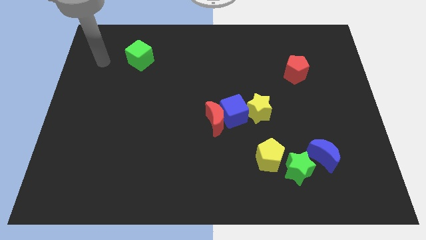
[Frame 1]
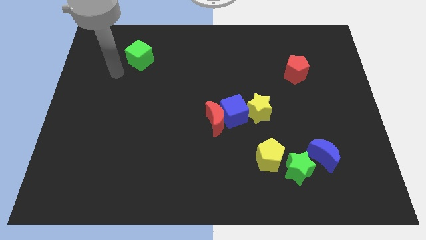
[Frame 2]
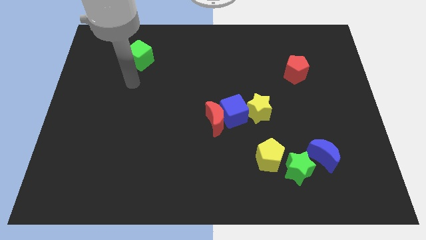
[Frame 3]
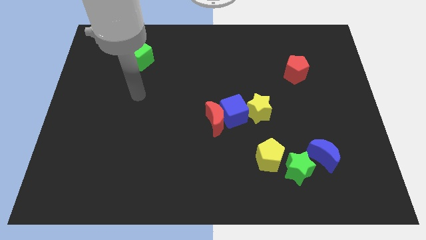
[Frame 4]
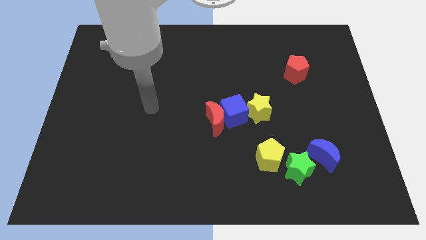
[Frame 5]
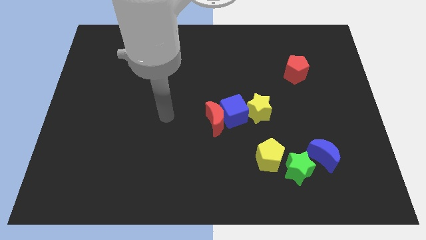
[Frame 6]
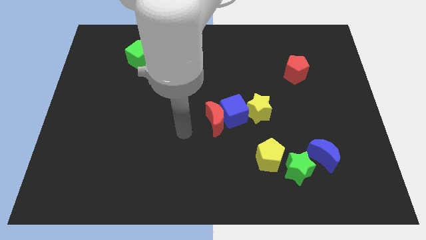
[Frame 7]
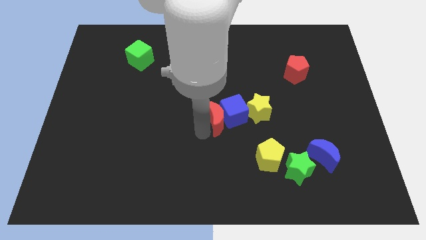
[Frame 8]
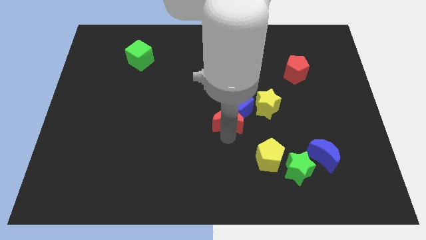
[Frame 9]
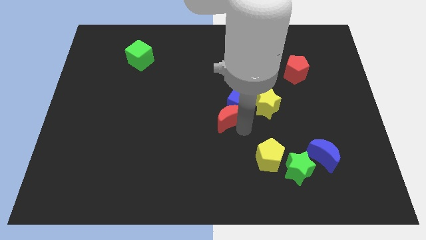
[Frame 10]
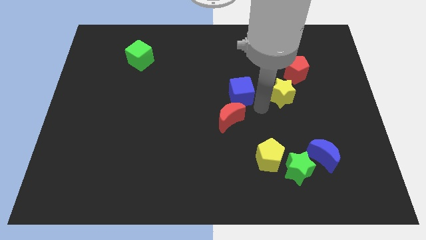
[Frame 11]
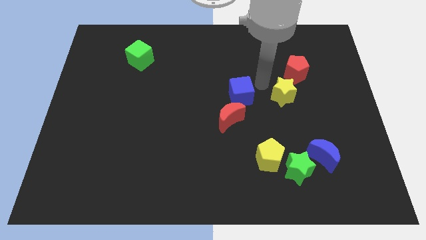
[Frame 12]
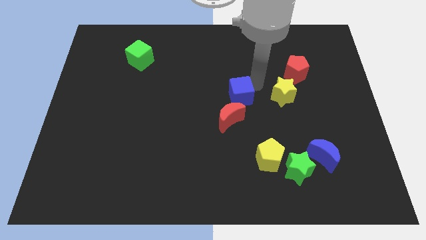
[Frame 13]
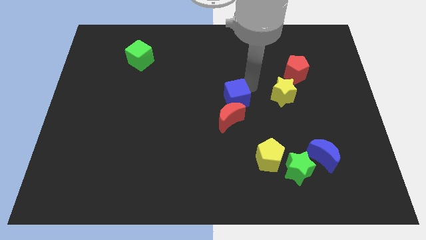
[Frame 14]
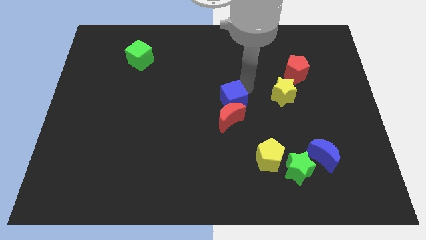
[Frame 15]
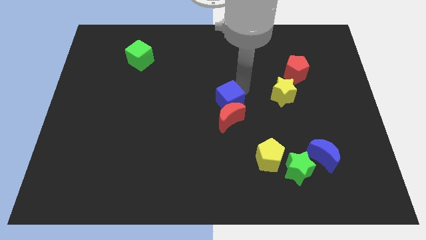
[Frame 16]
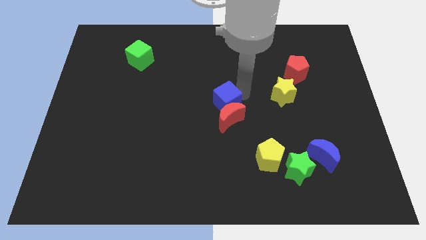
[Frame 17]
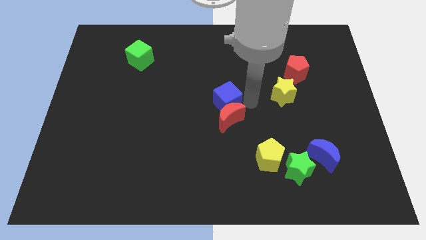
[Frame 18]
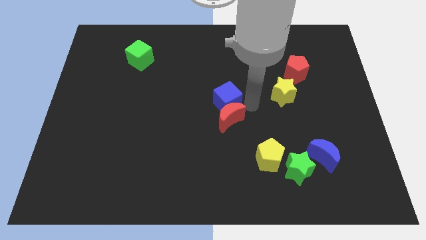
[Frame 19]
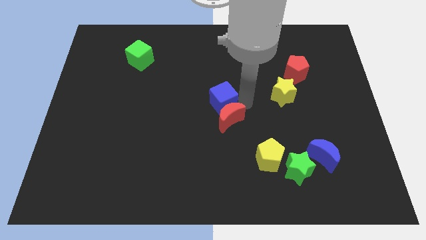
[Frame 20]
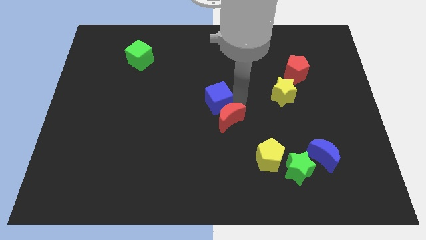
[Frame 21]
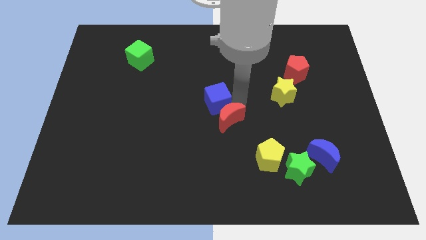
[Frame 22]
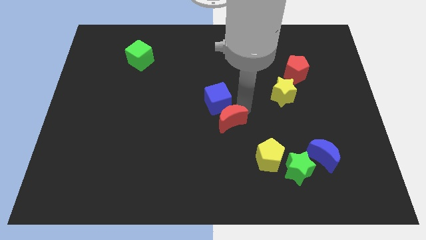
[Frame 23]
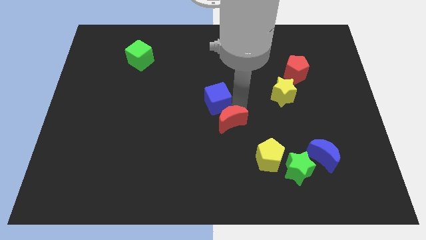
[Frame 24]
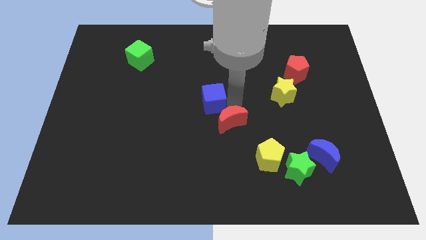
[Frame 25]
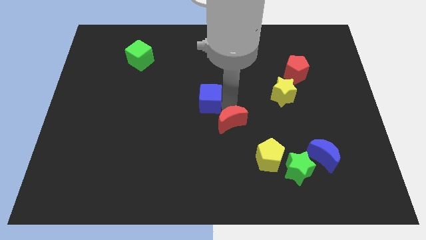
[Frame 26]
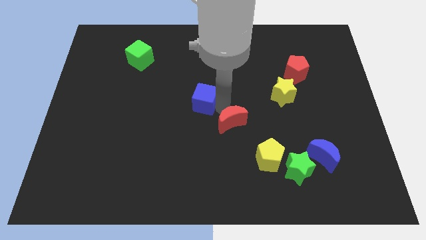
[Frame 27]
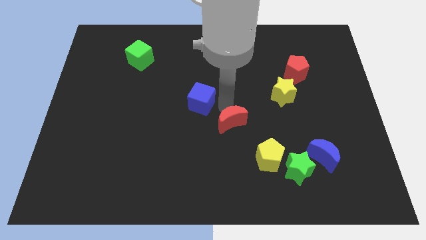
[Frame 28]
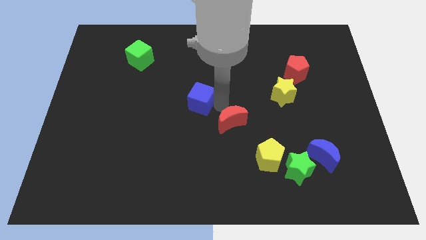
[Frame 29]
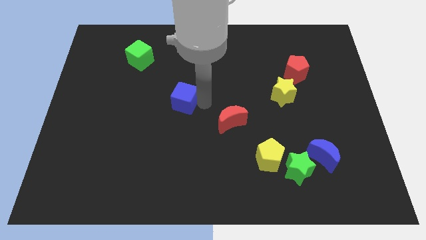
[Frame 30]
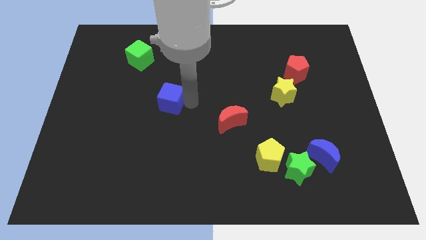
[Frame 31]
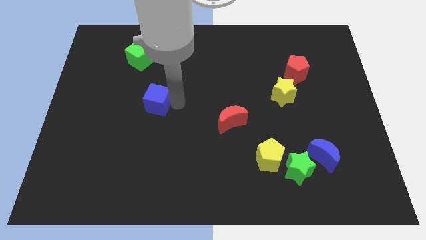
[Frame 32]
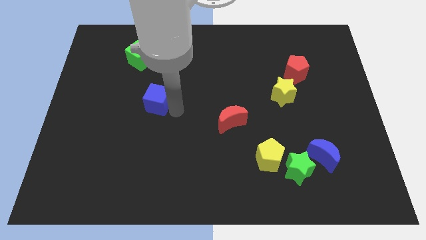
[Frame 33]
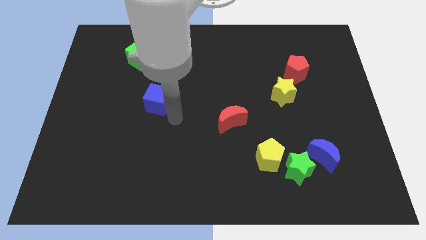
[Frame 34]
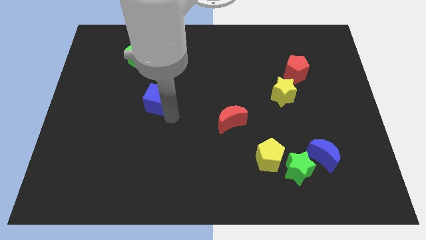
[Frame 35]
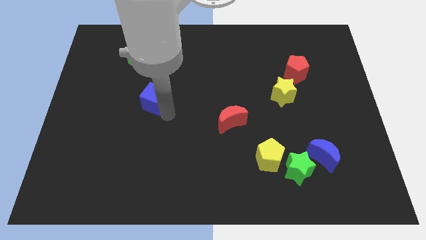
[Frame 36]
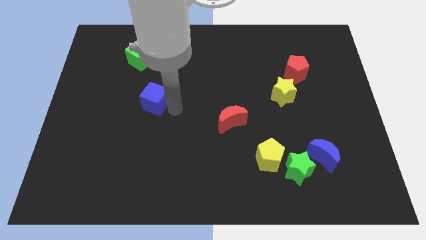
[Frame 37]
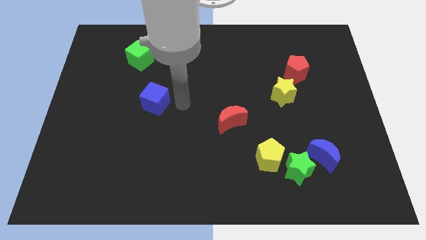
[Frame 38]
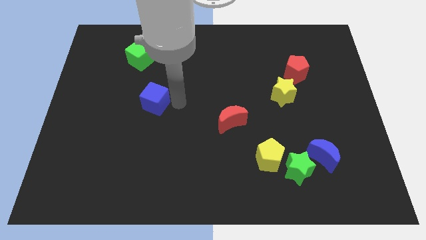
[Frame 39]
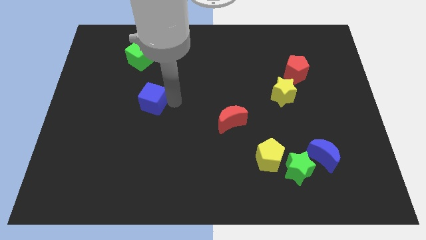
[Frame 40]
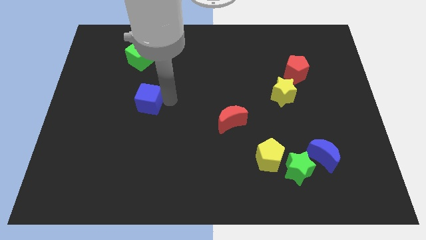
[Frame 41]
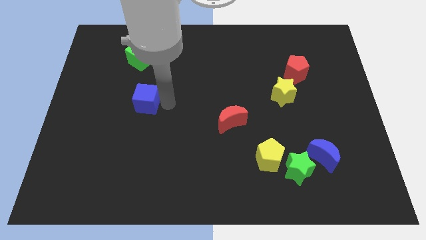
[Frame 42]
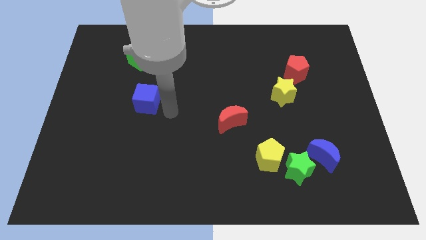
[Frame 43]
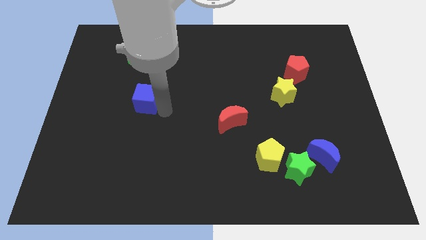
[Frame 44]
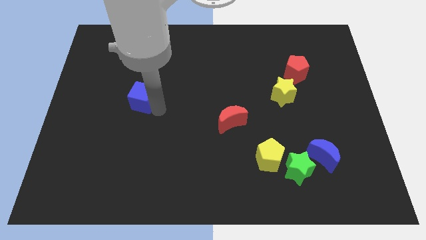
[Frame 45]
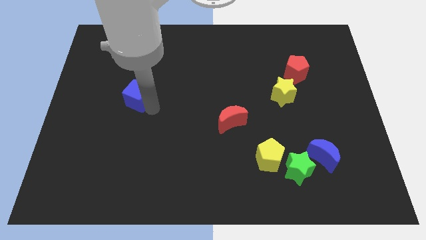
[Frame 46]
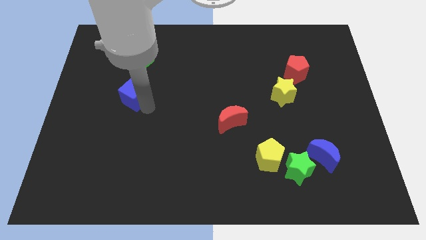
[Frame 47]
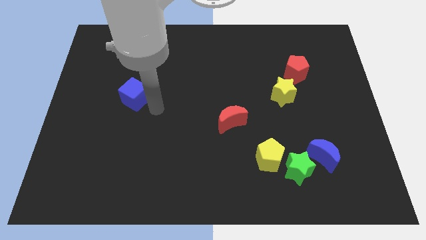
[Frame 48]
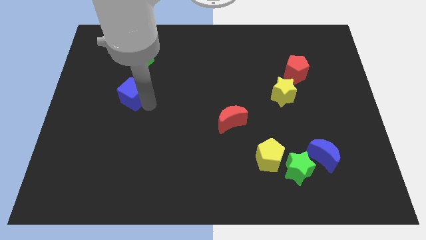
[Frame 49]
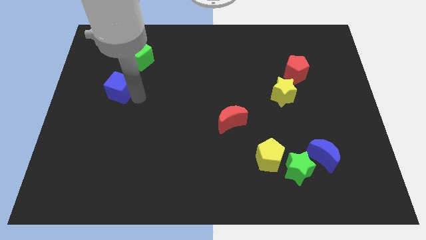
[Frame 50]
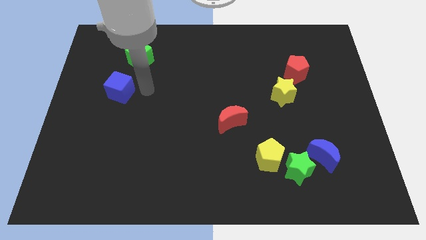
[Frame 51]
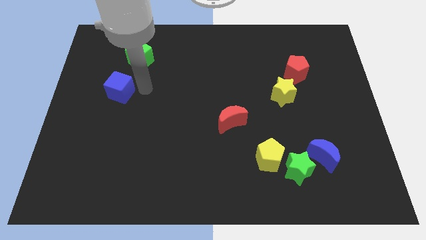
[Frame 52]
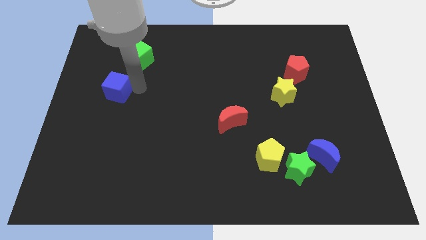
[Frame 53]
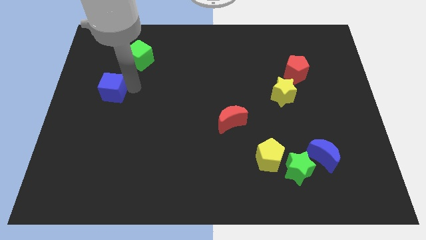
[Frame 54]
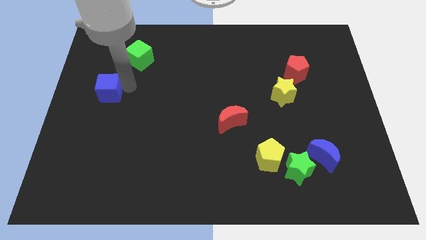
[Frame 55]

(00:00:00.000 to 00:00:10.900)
slide the blue cube to the left side

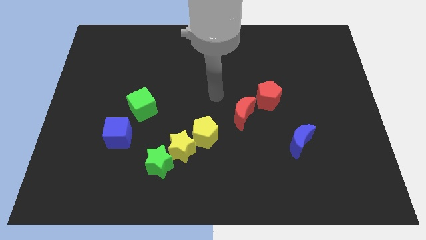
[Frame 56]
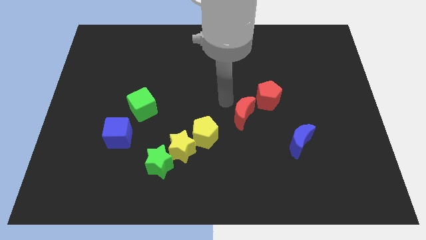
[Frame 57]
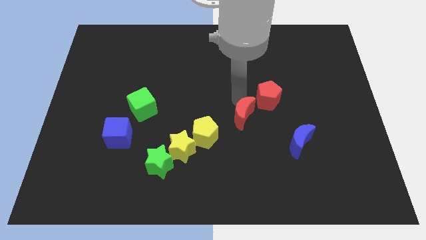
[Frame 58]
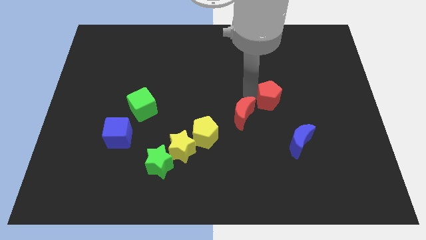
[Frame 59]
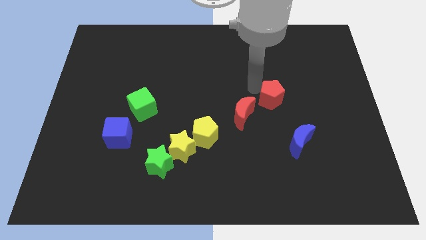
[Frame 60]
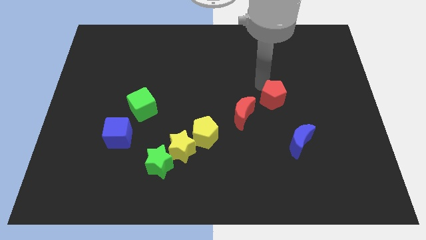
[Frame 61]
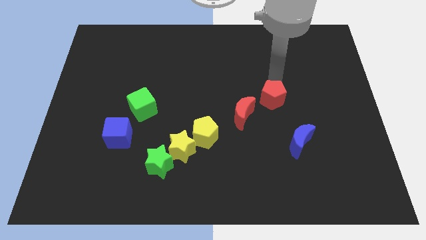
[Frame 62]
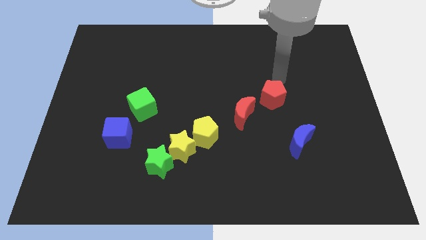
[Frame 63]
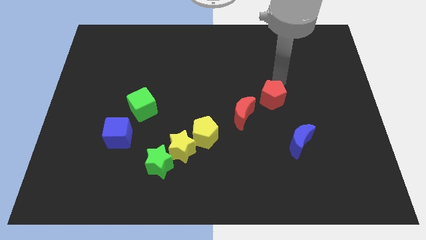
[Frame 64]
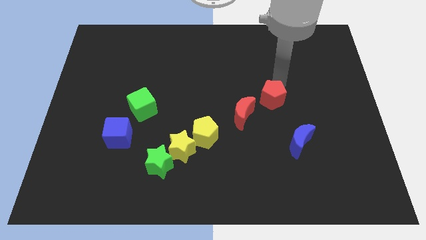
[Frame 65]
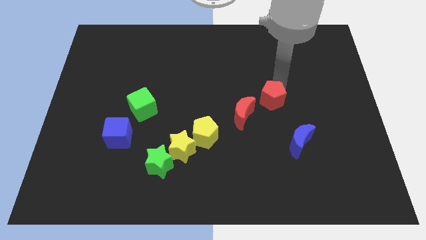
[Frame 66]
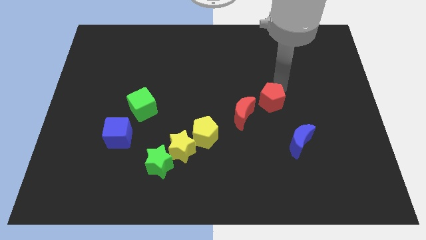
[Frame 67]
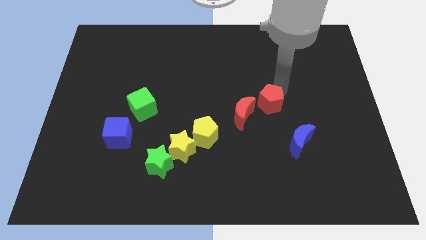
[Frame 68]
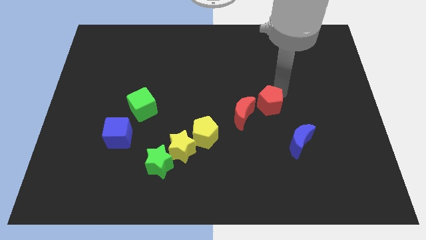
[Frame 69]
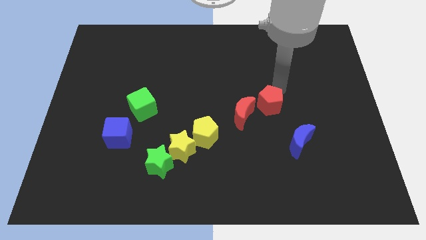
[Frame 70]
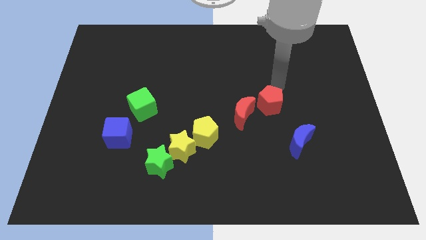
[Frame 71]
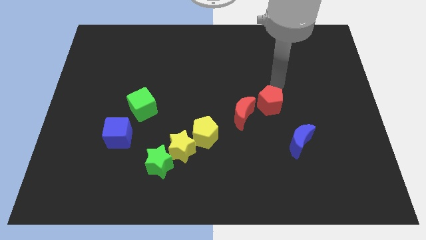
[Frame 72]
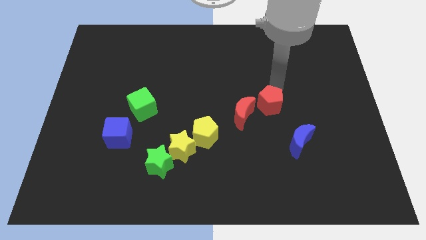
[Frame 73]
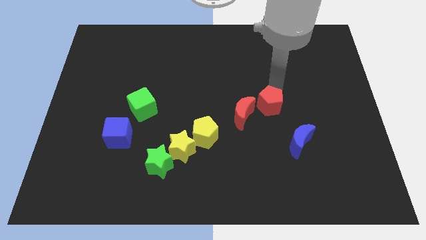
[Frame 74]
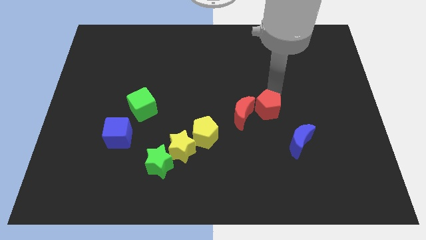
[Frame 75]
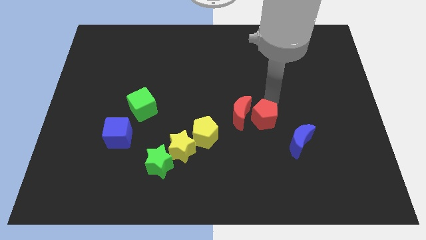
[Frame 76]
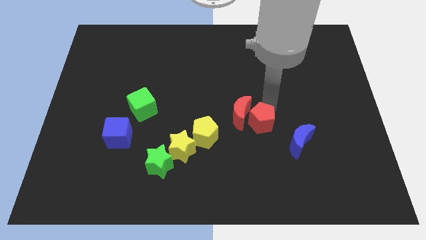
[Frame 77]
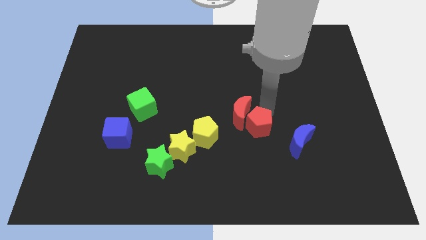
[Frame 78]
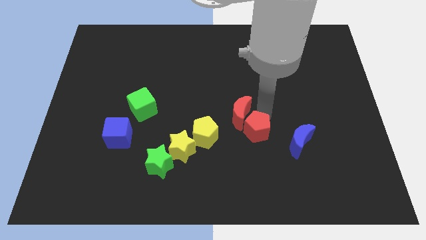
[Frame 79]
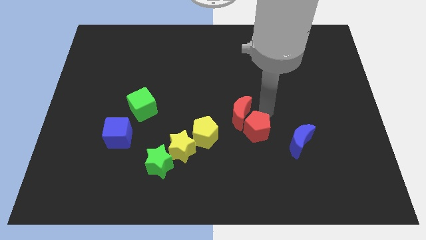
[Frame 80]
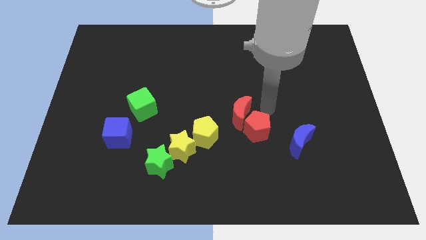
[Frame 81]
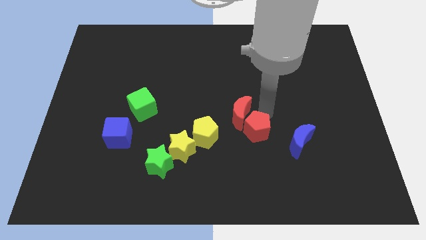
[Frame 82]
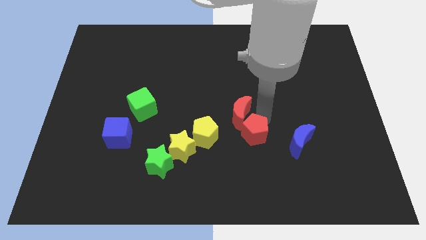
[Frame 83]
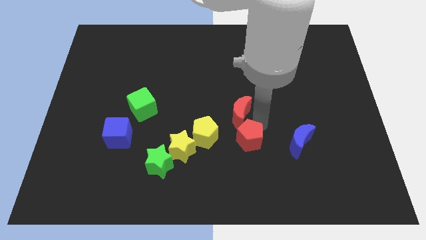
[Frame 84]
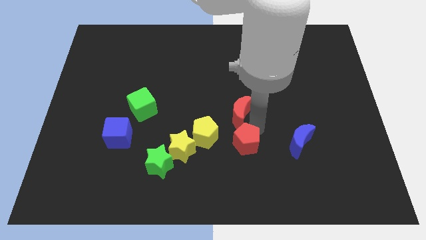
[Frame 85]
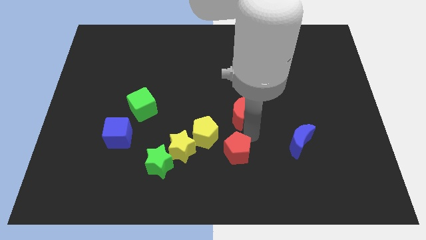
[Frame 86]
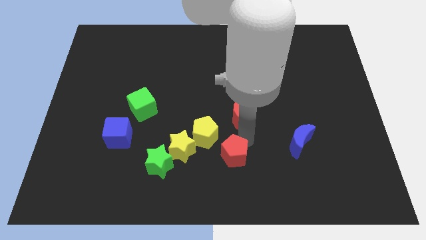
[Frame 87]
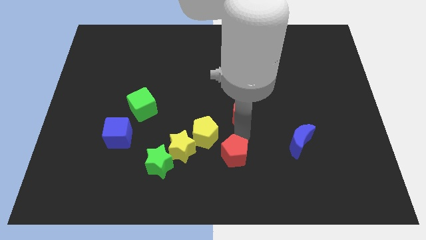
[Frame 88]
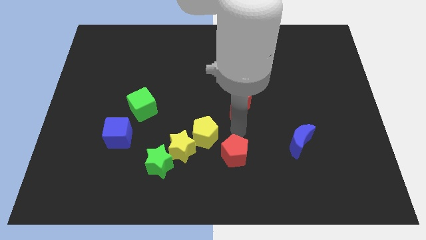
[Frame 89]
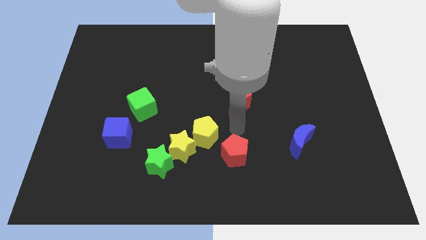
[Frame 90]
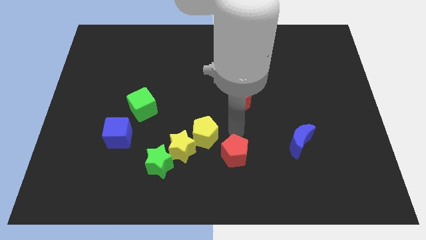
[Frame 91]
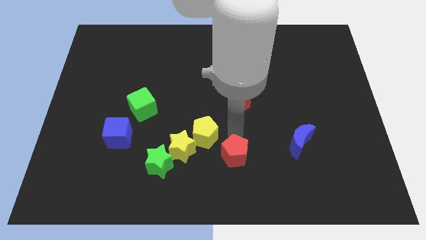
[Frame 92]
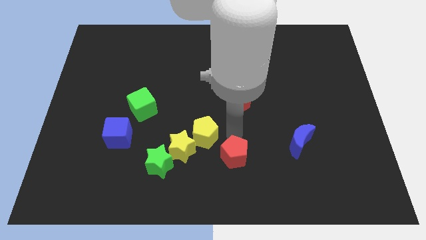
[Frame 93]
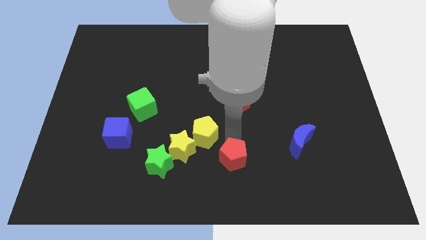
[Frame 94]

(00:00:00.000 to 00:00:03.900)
put the red pentagon to the bottom
